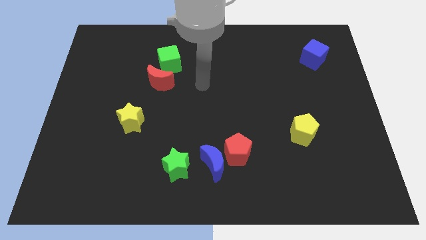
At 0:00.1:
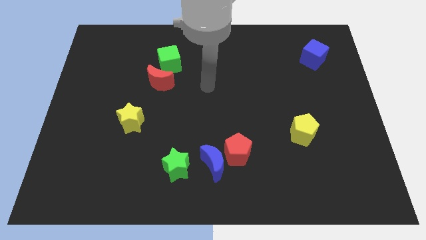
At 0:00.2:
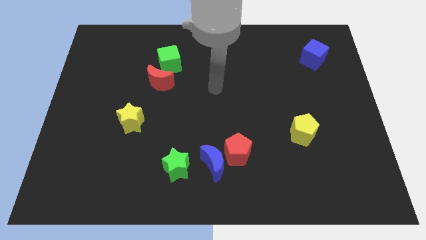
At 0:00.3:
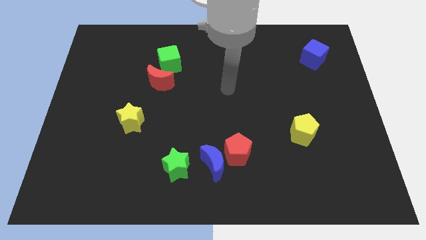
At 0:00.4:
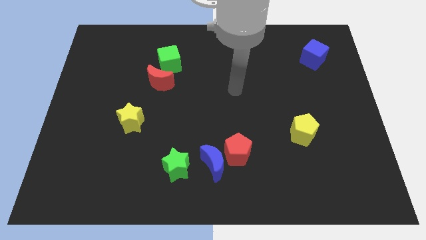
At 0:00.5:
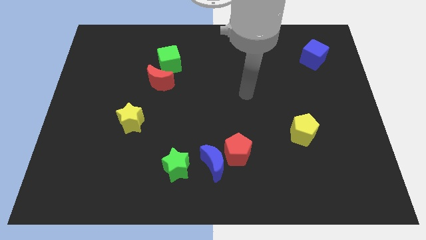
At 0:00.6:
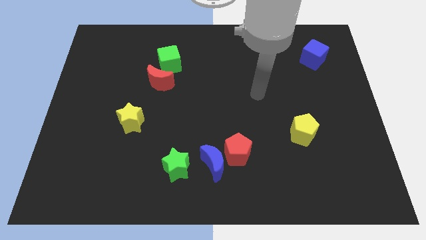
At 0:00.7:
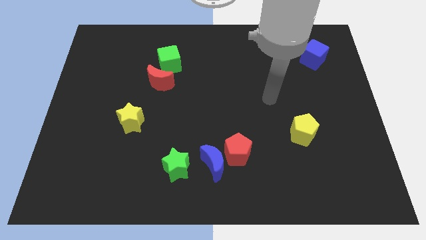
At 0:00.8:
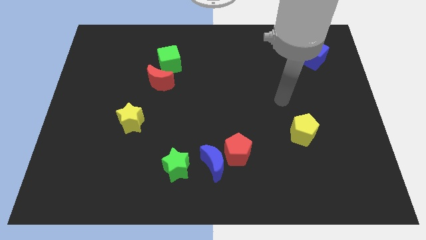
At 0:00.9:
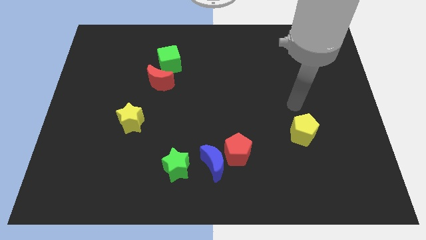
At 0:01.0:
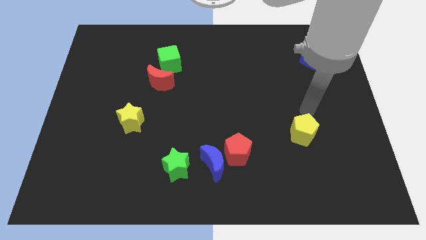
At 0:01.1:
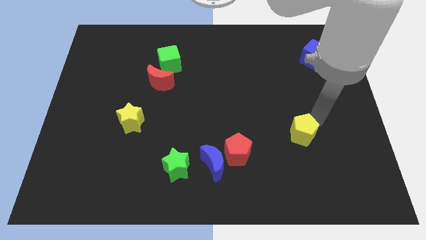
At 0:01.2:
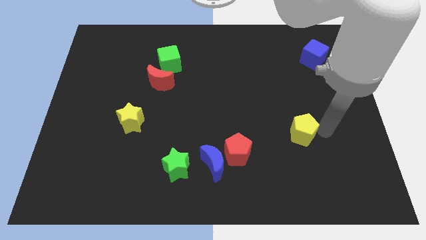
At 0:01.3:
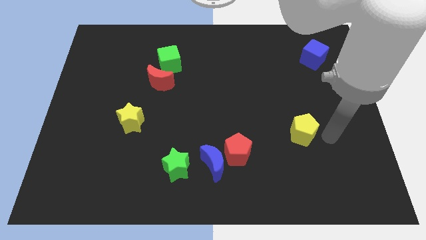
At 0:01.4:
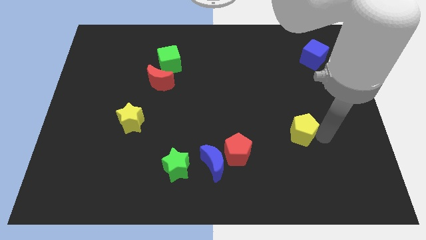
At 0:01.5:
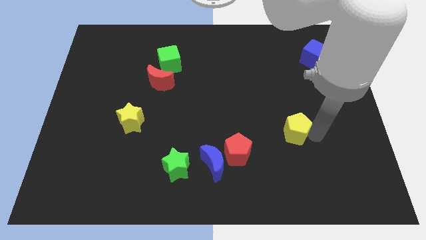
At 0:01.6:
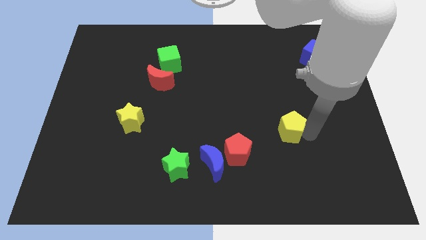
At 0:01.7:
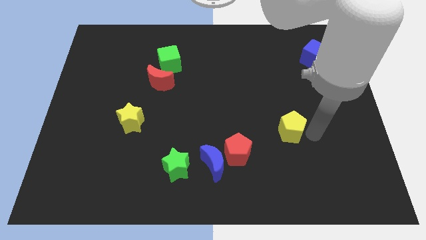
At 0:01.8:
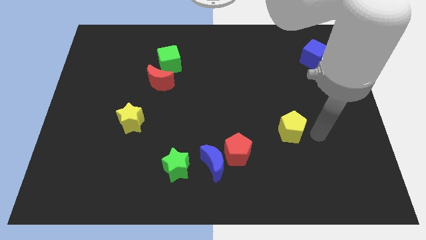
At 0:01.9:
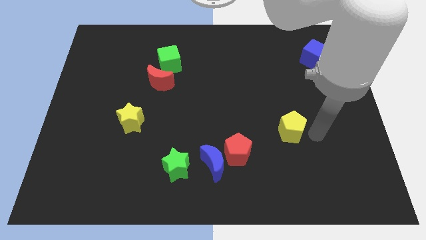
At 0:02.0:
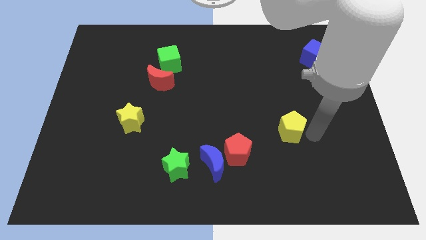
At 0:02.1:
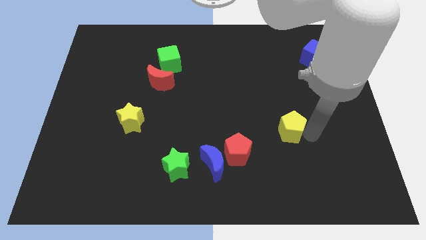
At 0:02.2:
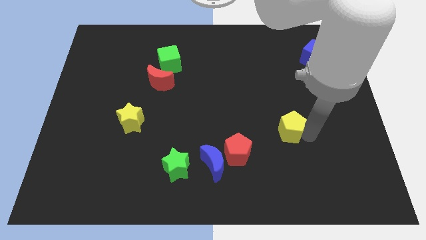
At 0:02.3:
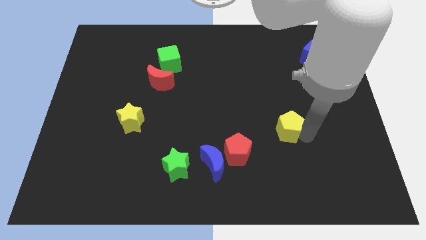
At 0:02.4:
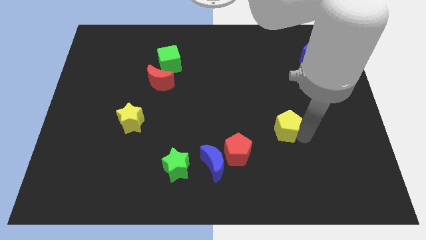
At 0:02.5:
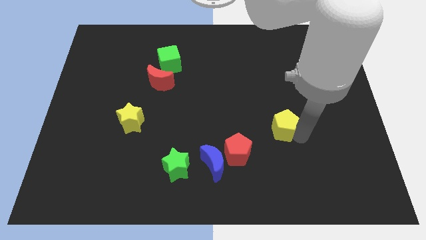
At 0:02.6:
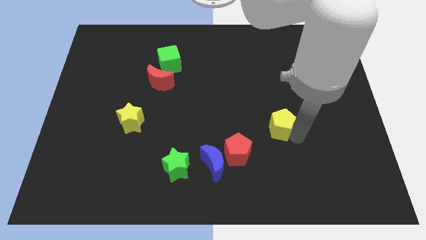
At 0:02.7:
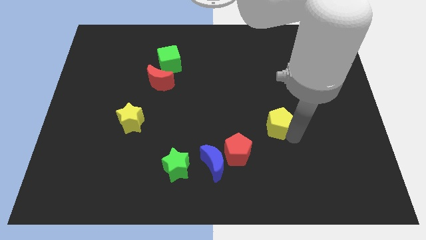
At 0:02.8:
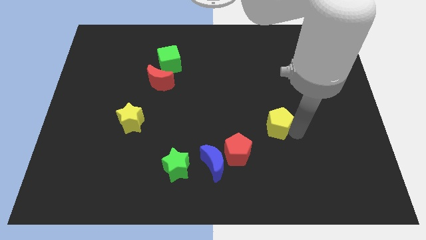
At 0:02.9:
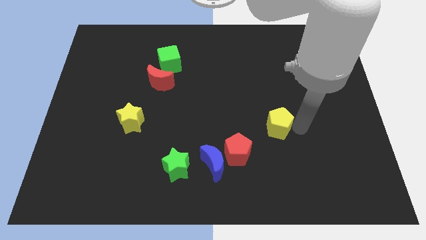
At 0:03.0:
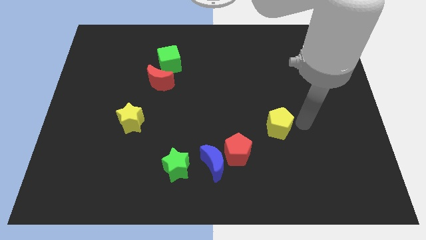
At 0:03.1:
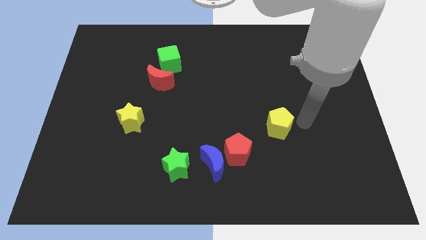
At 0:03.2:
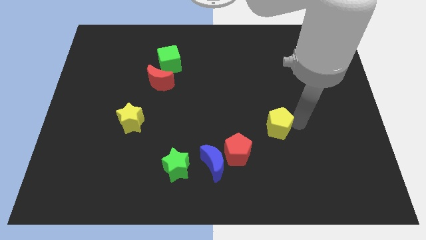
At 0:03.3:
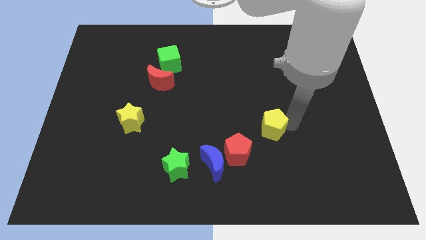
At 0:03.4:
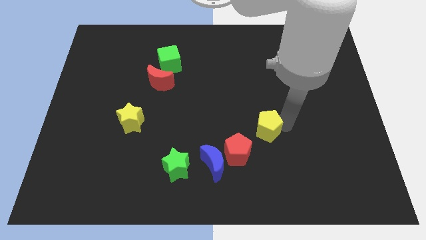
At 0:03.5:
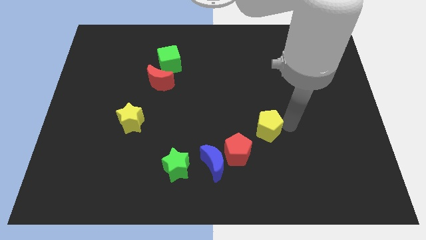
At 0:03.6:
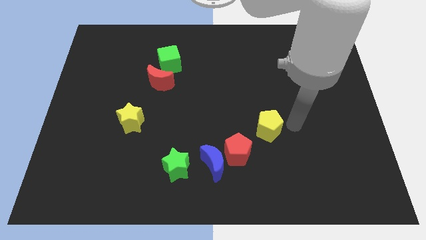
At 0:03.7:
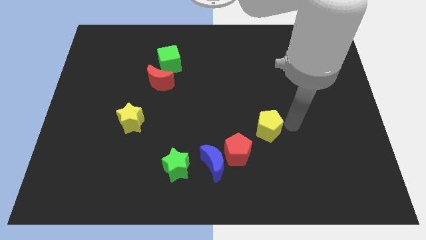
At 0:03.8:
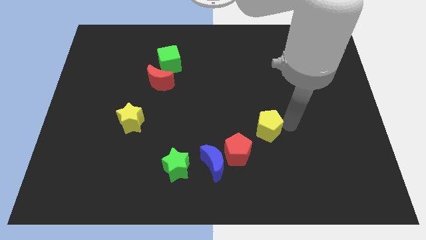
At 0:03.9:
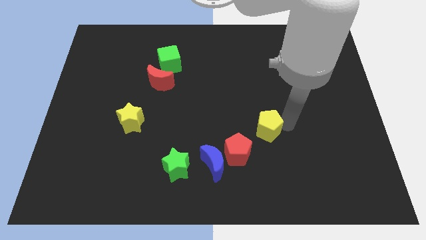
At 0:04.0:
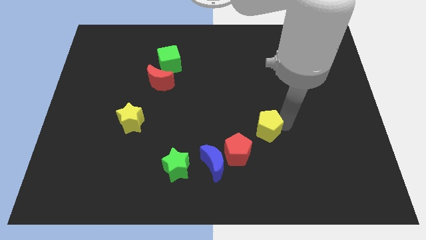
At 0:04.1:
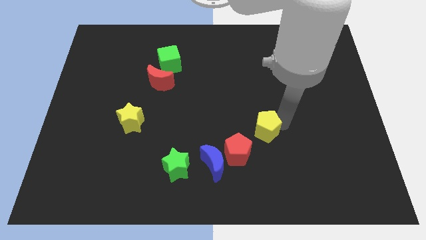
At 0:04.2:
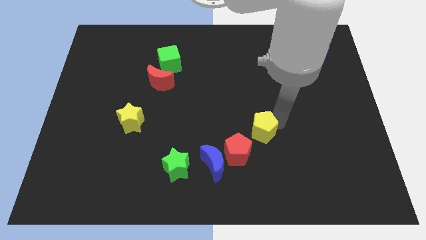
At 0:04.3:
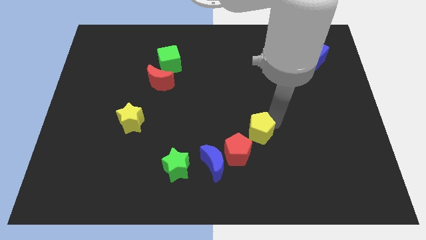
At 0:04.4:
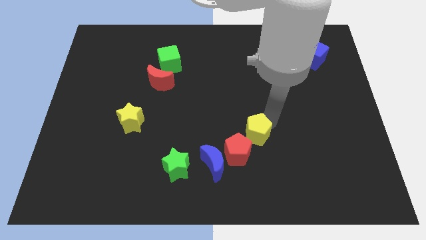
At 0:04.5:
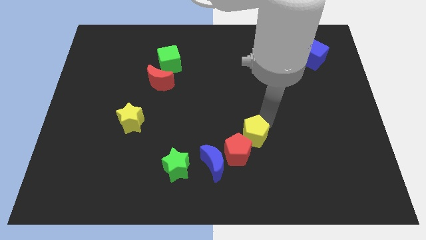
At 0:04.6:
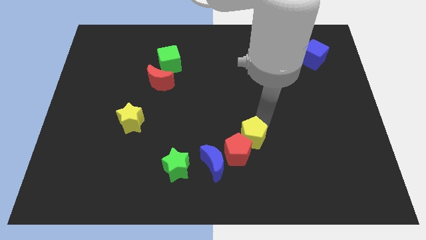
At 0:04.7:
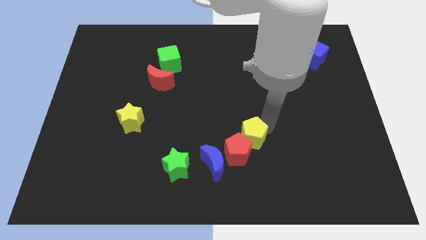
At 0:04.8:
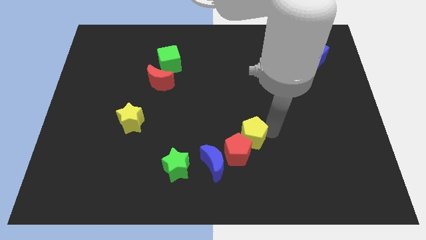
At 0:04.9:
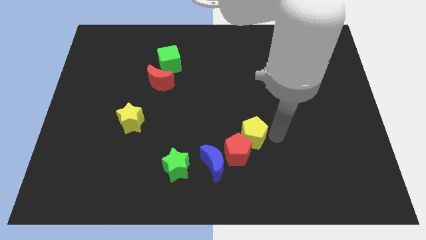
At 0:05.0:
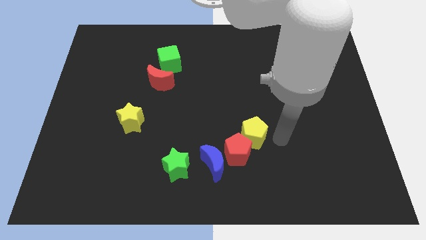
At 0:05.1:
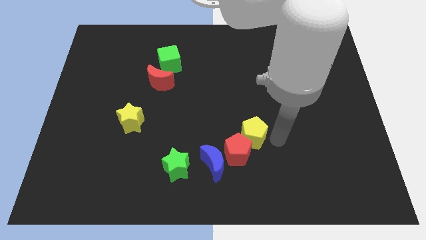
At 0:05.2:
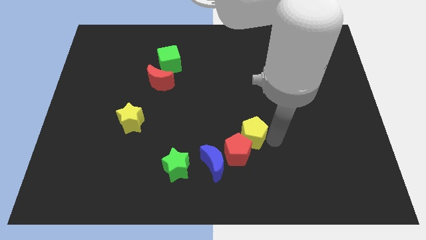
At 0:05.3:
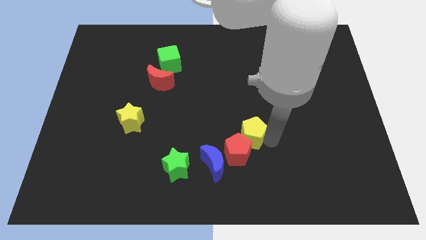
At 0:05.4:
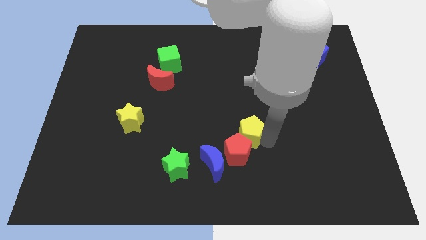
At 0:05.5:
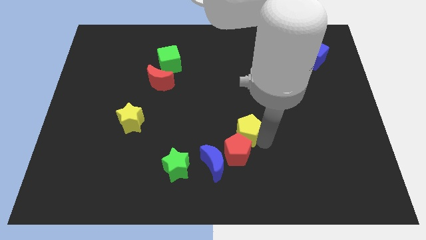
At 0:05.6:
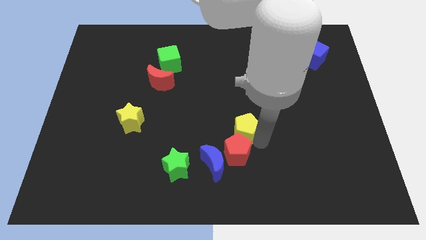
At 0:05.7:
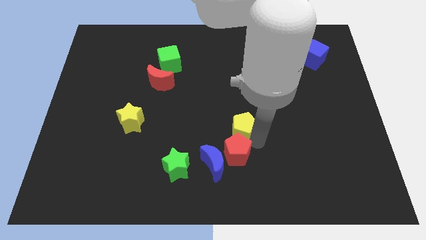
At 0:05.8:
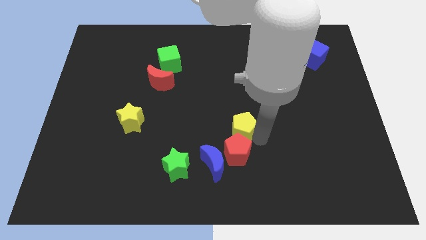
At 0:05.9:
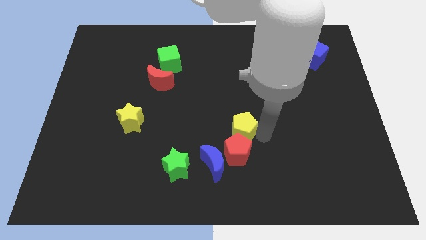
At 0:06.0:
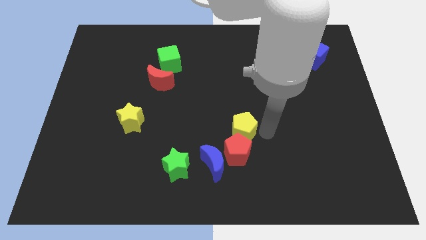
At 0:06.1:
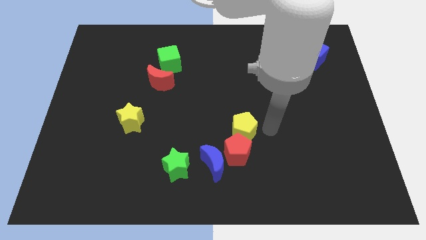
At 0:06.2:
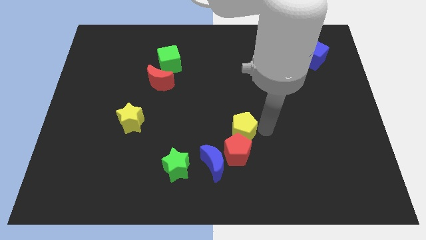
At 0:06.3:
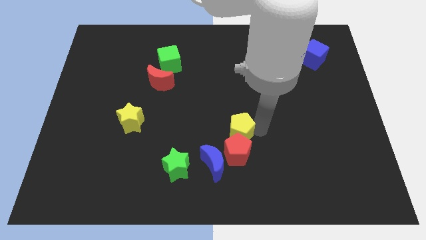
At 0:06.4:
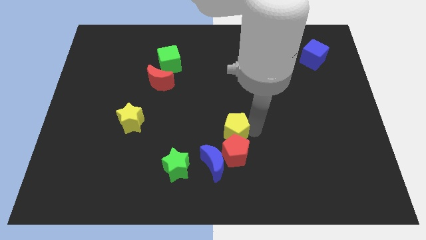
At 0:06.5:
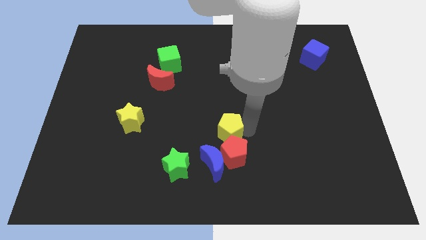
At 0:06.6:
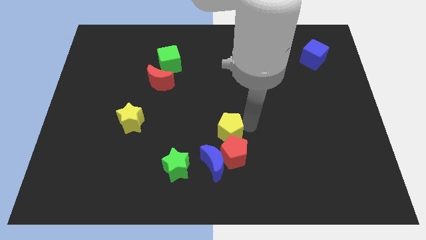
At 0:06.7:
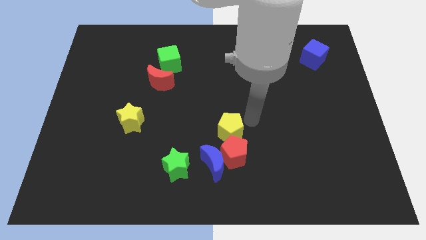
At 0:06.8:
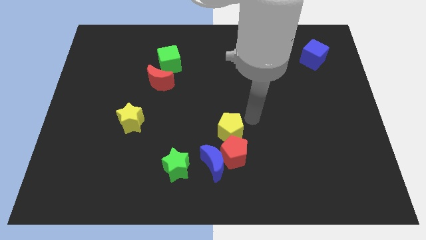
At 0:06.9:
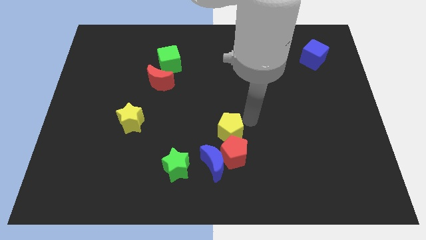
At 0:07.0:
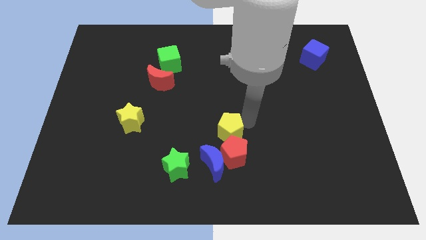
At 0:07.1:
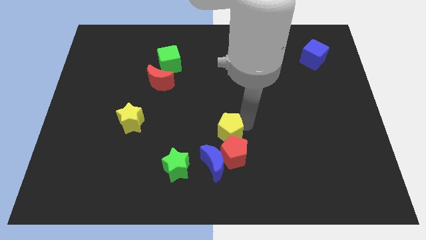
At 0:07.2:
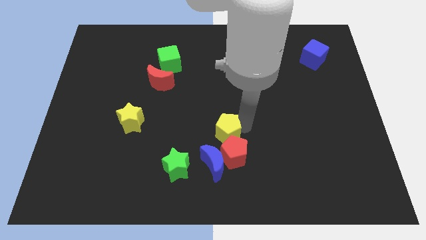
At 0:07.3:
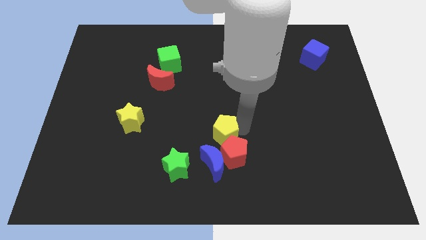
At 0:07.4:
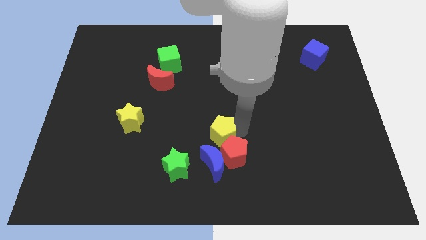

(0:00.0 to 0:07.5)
push the yellow pentagon to the top right side of the green star

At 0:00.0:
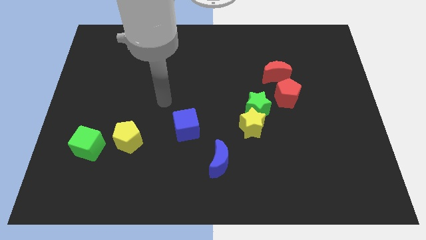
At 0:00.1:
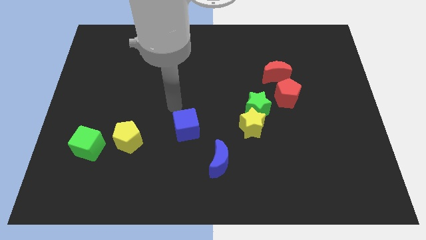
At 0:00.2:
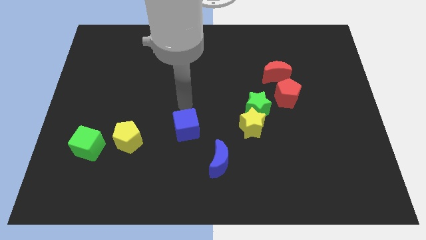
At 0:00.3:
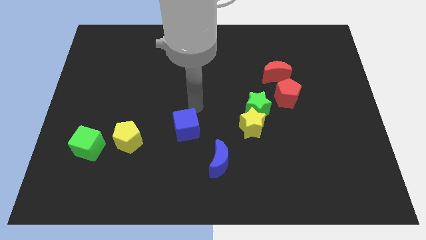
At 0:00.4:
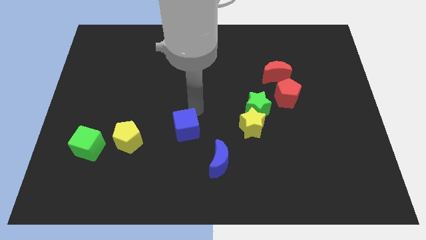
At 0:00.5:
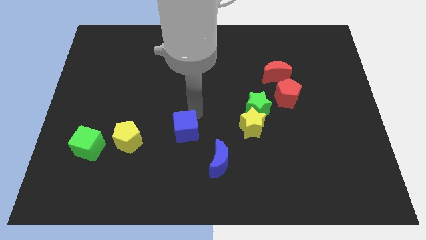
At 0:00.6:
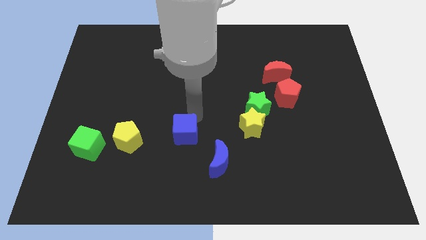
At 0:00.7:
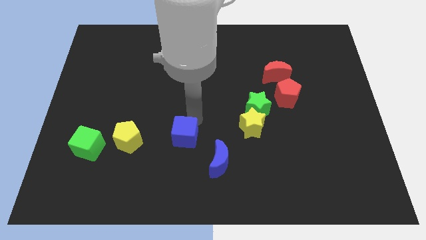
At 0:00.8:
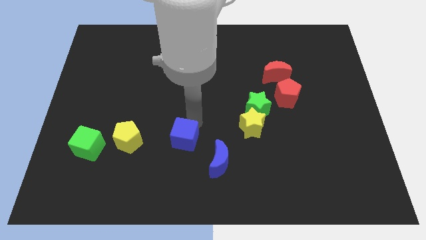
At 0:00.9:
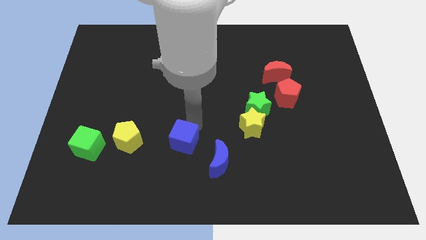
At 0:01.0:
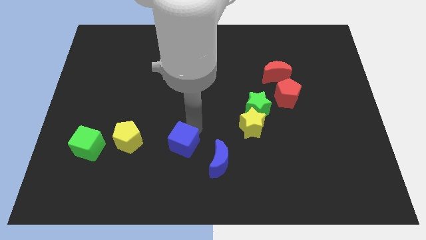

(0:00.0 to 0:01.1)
put the blue cube to the left of the blue moon
